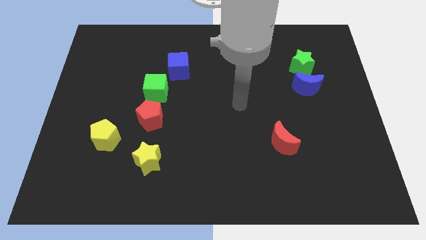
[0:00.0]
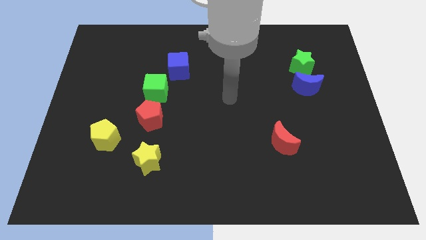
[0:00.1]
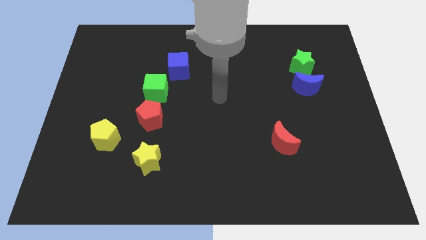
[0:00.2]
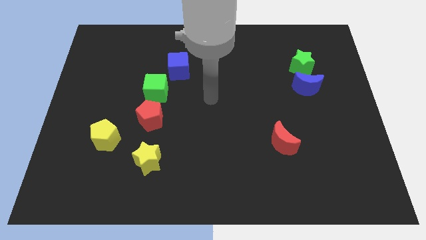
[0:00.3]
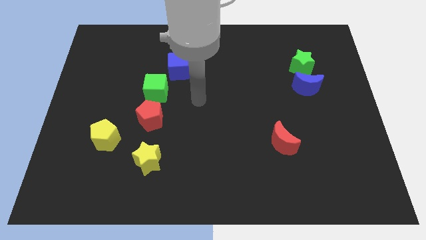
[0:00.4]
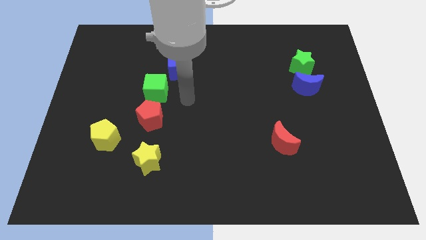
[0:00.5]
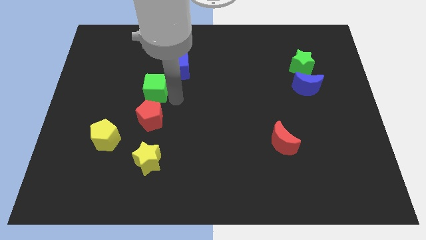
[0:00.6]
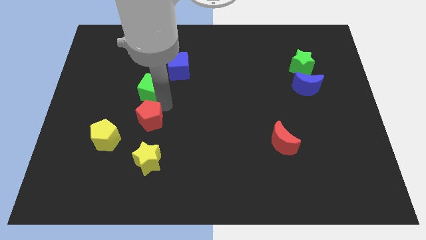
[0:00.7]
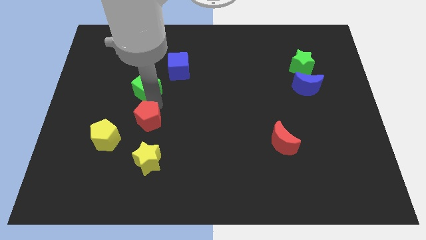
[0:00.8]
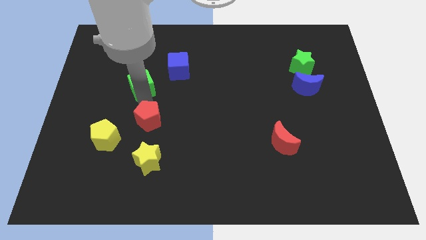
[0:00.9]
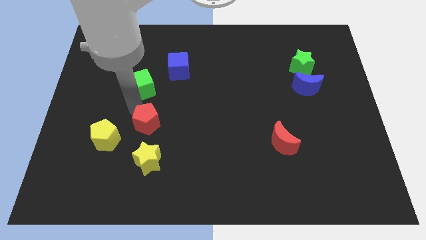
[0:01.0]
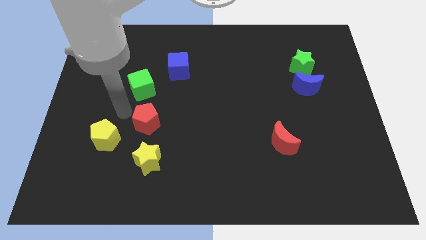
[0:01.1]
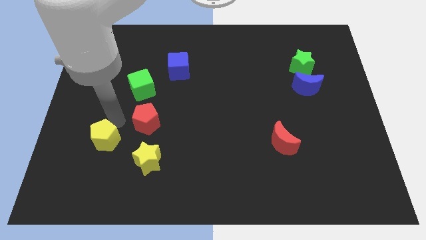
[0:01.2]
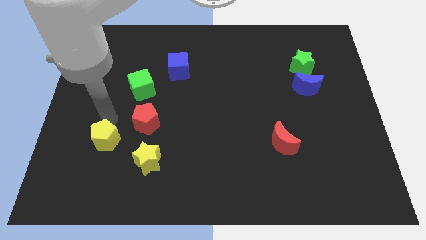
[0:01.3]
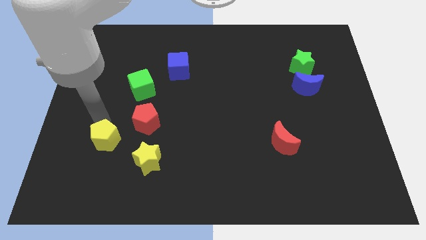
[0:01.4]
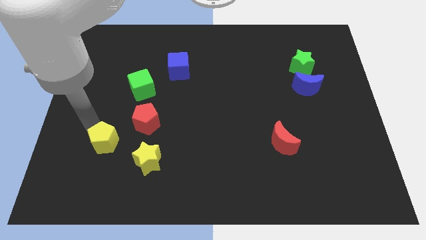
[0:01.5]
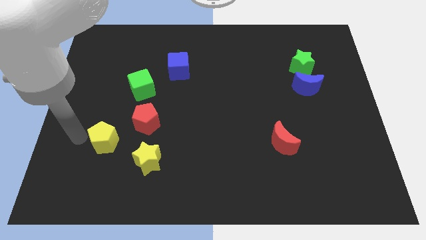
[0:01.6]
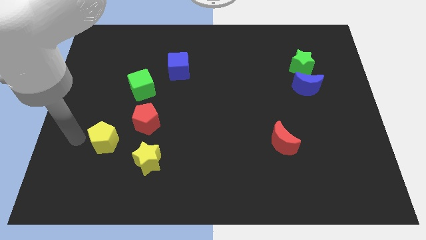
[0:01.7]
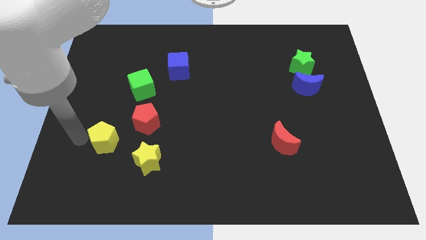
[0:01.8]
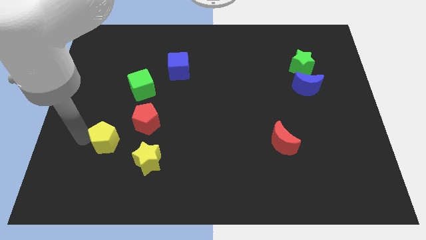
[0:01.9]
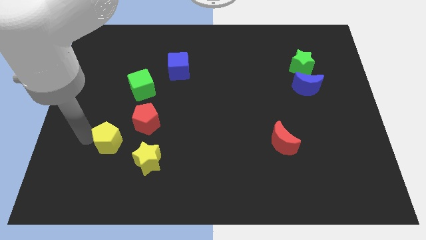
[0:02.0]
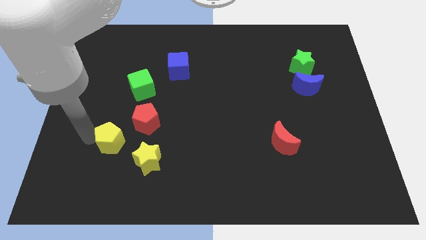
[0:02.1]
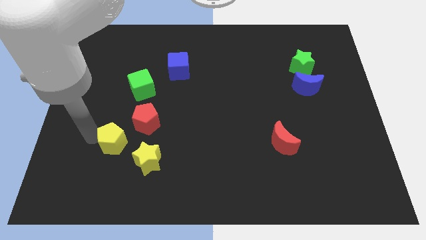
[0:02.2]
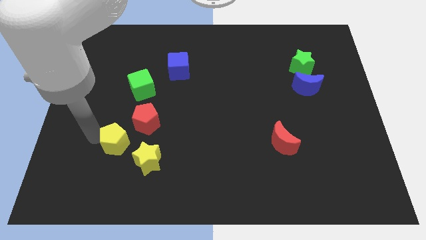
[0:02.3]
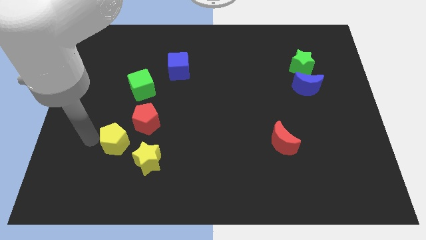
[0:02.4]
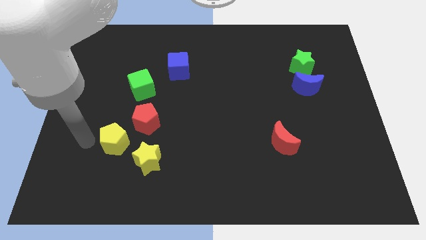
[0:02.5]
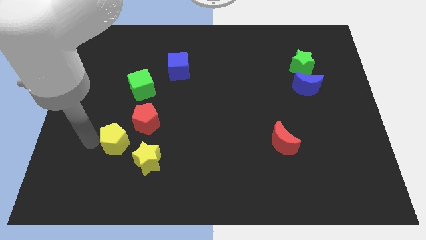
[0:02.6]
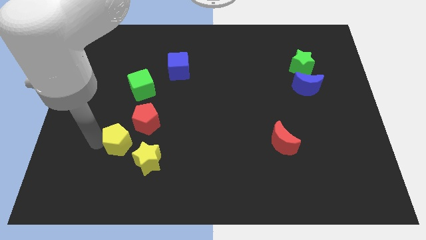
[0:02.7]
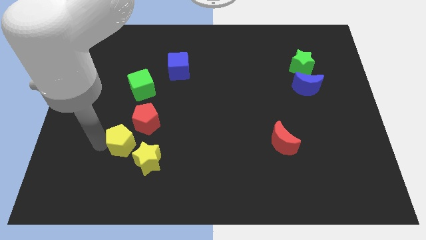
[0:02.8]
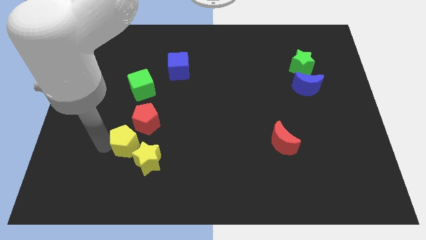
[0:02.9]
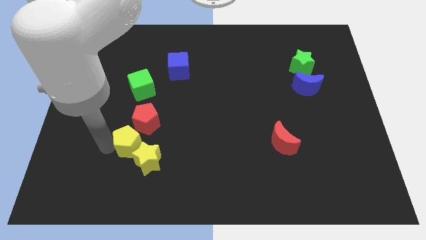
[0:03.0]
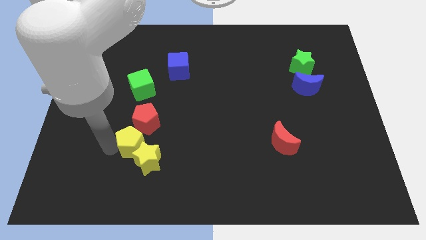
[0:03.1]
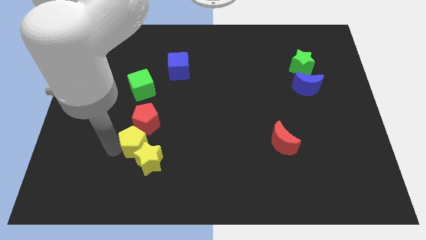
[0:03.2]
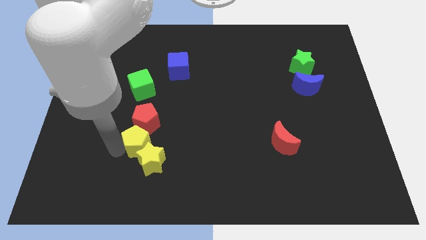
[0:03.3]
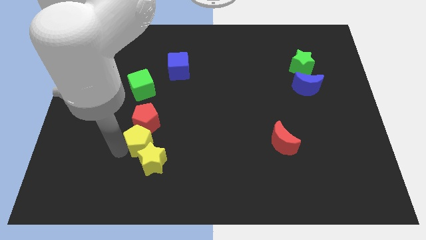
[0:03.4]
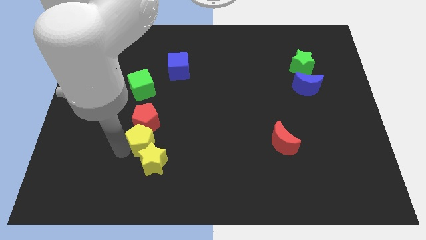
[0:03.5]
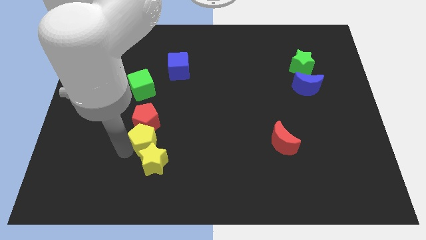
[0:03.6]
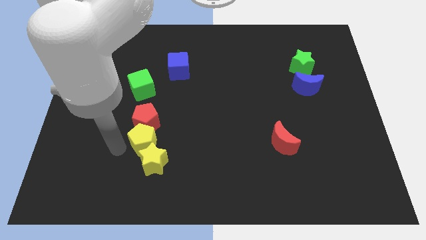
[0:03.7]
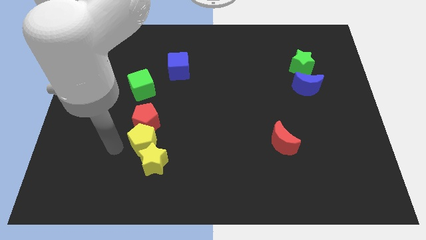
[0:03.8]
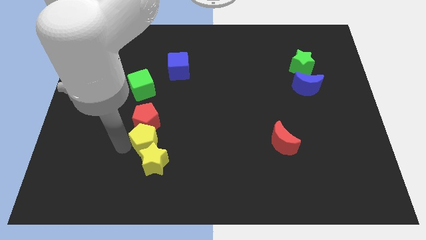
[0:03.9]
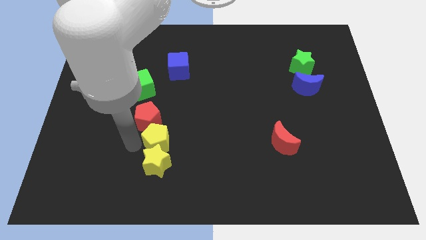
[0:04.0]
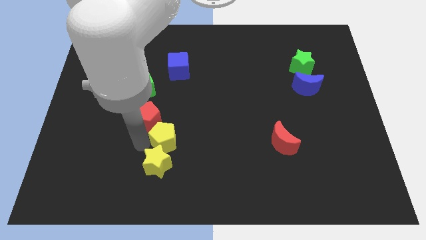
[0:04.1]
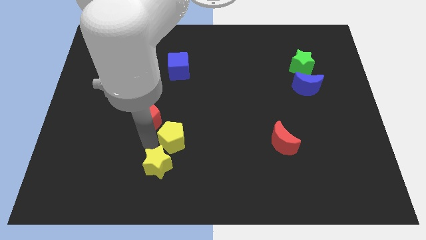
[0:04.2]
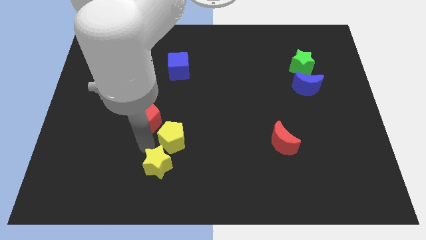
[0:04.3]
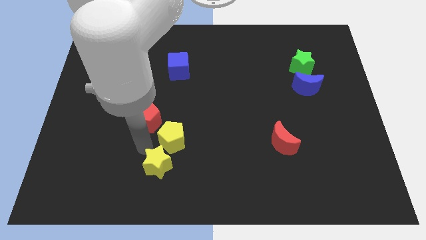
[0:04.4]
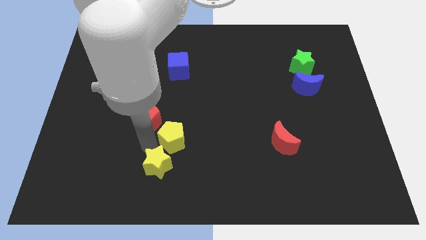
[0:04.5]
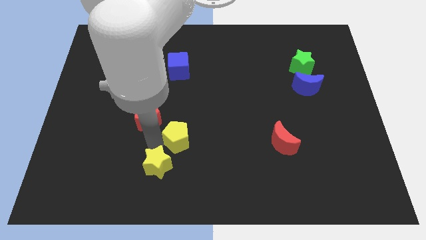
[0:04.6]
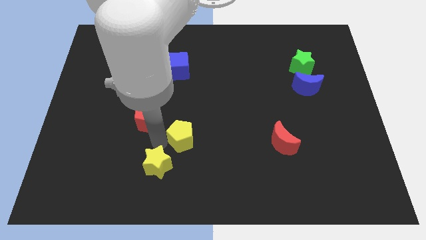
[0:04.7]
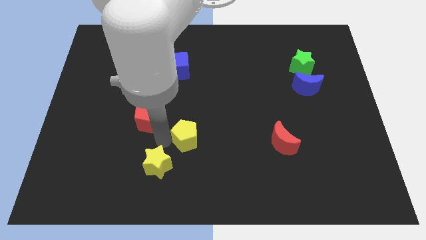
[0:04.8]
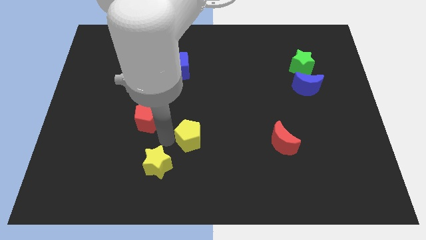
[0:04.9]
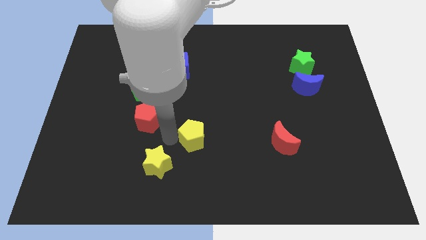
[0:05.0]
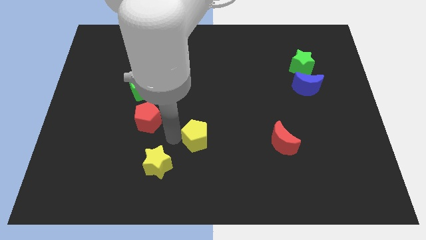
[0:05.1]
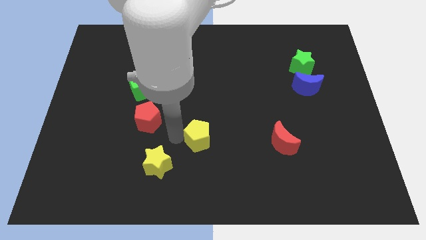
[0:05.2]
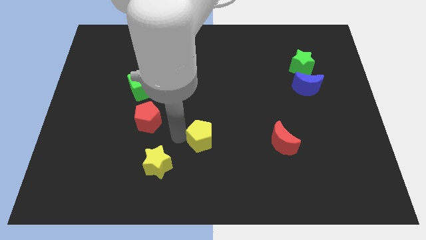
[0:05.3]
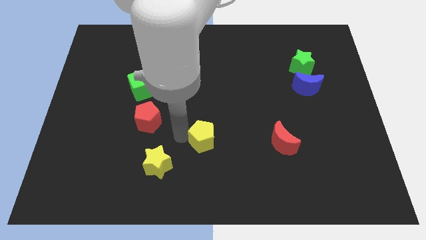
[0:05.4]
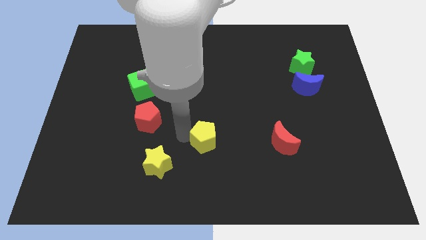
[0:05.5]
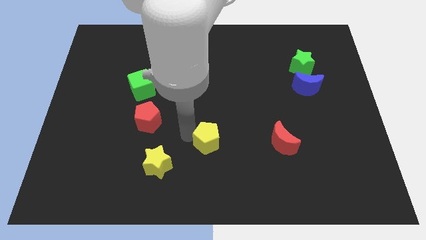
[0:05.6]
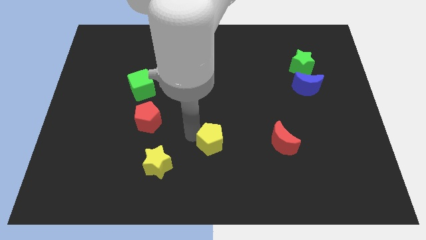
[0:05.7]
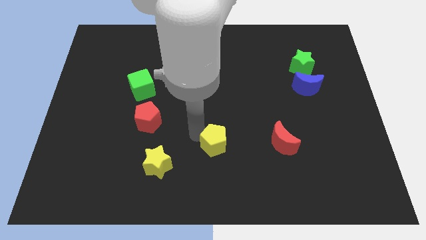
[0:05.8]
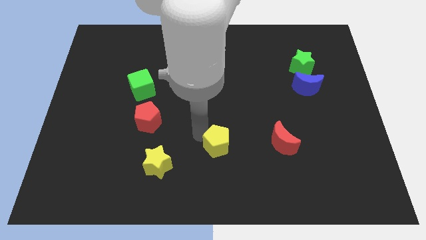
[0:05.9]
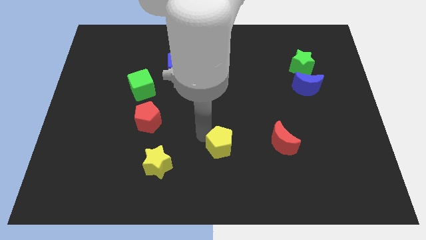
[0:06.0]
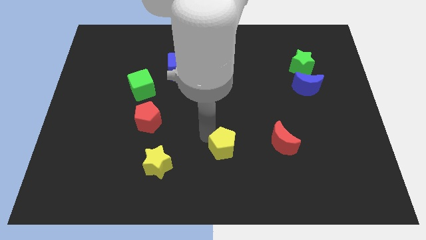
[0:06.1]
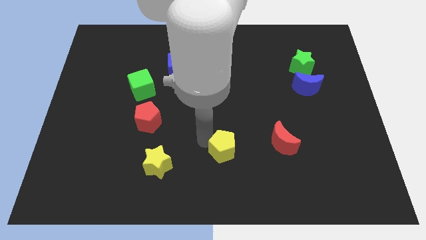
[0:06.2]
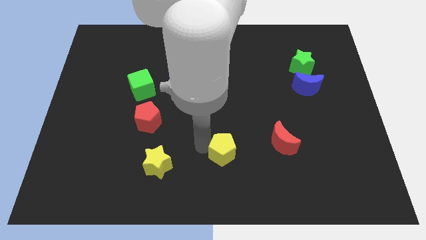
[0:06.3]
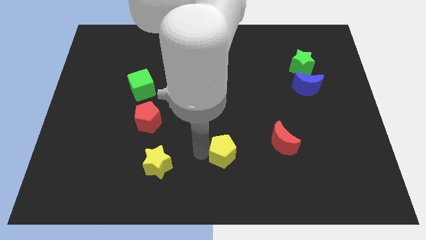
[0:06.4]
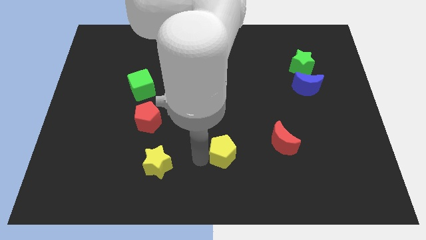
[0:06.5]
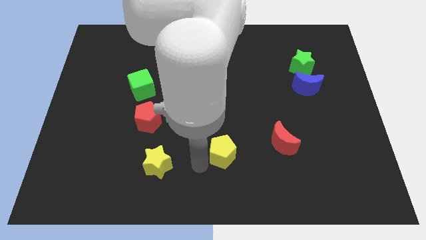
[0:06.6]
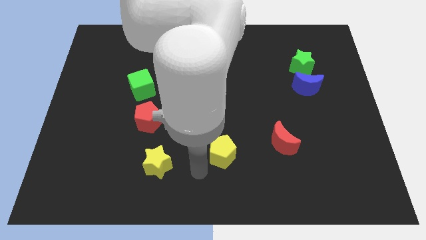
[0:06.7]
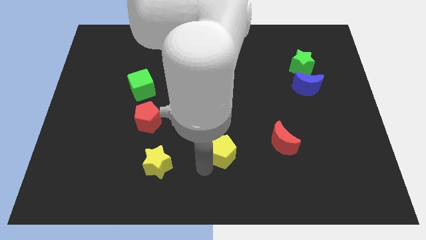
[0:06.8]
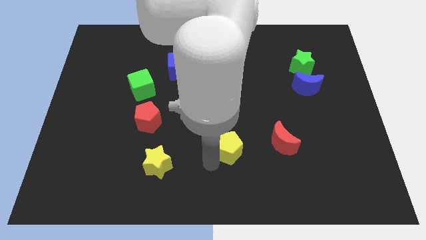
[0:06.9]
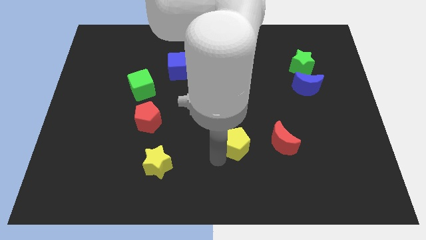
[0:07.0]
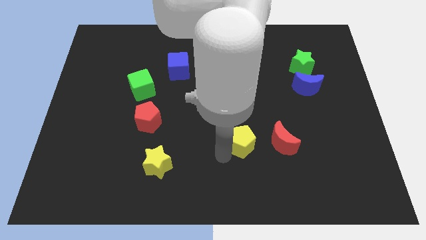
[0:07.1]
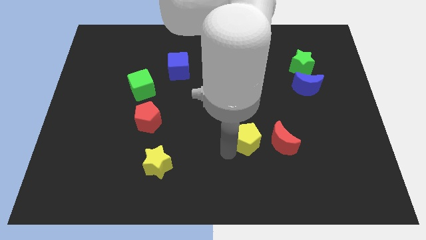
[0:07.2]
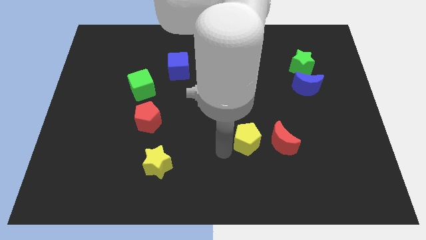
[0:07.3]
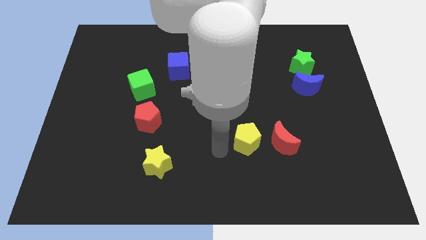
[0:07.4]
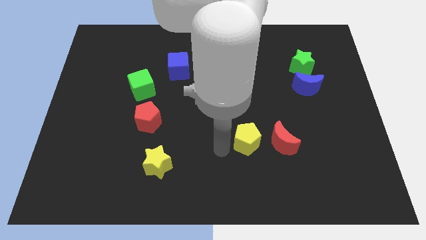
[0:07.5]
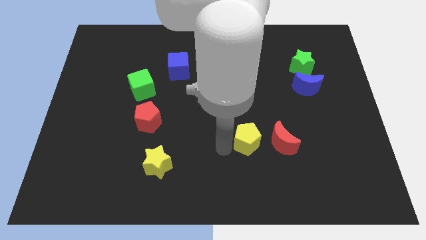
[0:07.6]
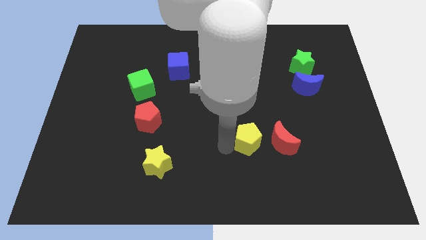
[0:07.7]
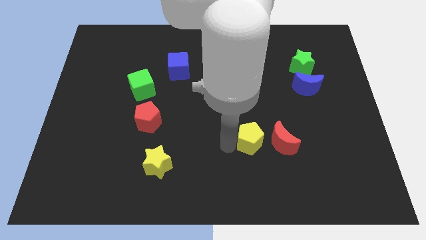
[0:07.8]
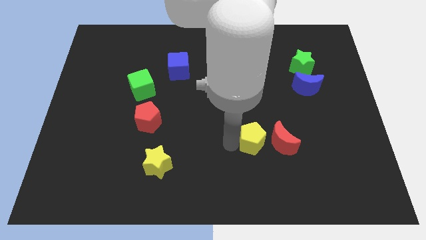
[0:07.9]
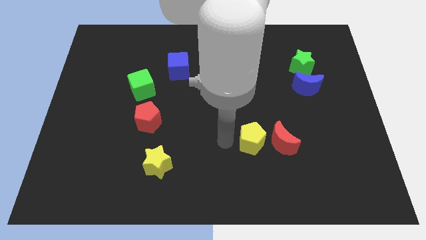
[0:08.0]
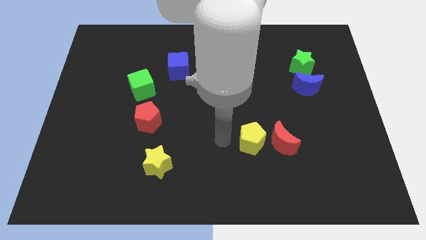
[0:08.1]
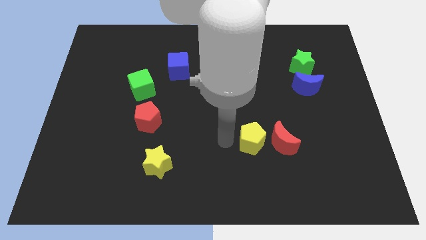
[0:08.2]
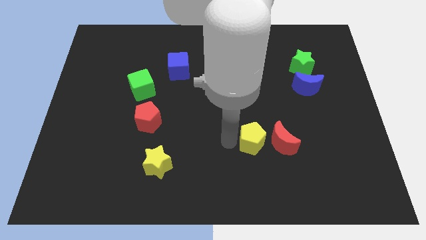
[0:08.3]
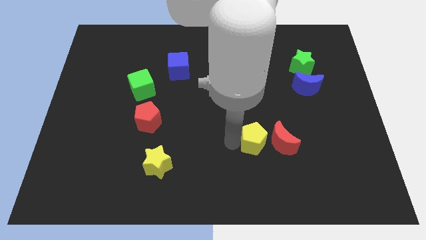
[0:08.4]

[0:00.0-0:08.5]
put the yellow pentagon to the red moon
